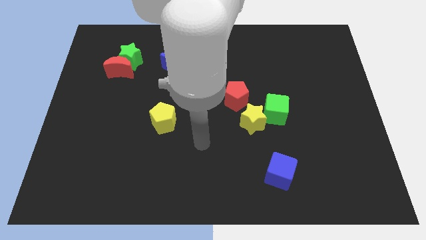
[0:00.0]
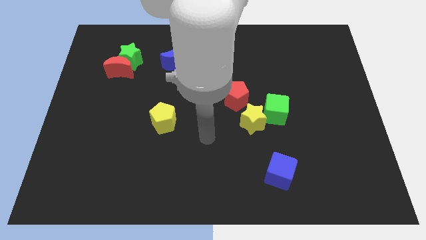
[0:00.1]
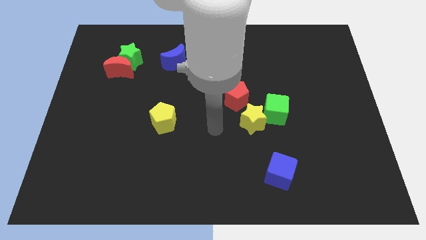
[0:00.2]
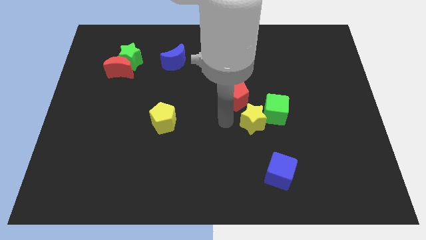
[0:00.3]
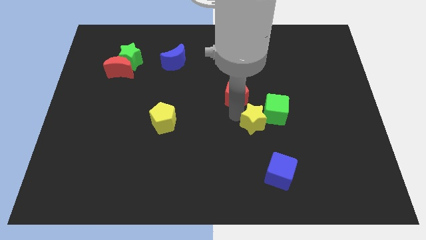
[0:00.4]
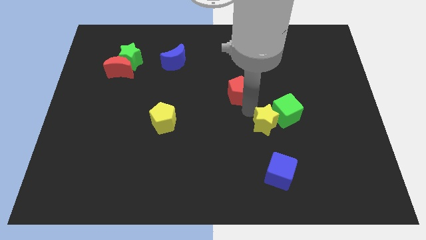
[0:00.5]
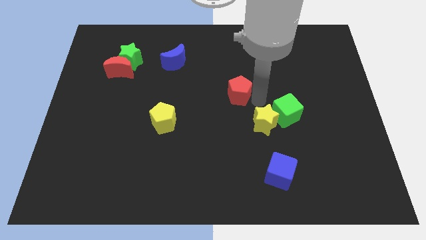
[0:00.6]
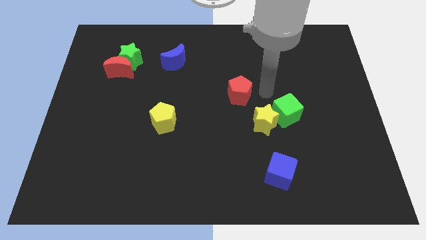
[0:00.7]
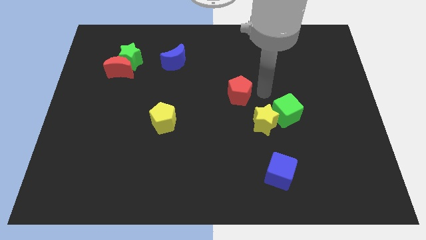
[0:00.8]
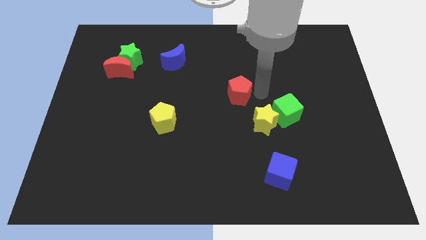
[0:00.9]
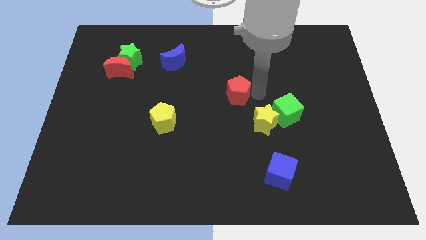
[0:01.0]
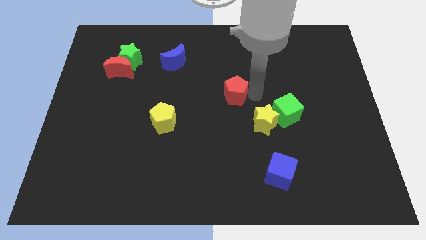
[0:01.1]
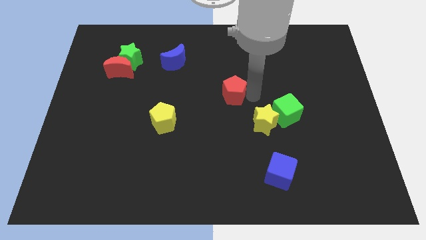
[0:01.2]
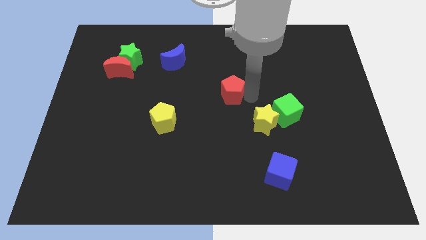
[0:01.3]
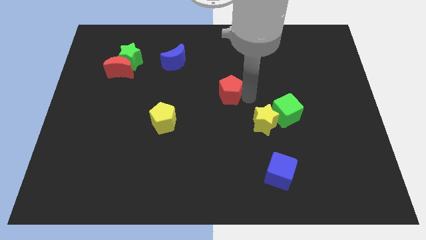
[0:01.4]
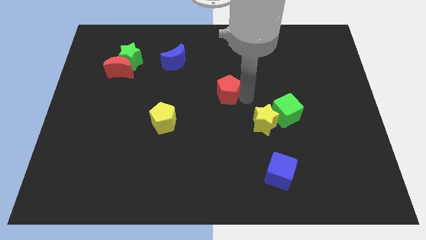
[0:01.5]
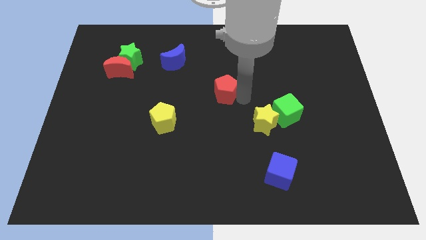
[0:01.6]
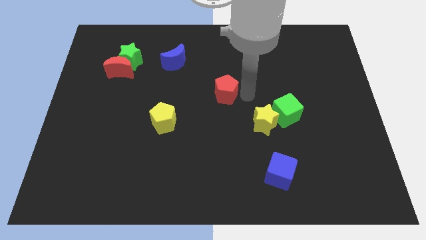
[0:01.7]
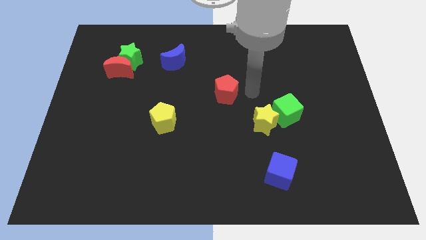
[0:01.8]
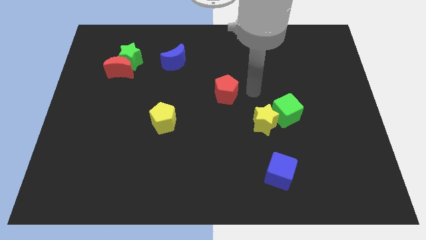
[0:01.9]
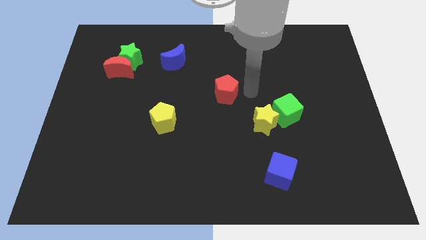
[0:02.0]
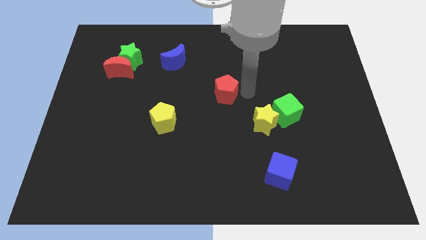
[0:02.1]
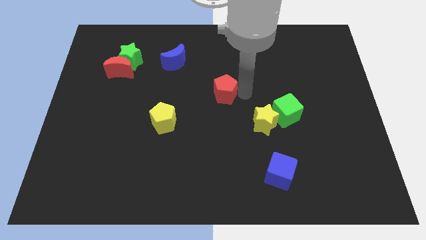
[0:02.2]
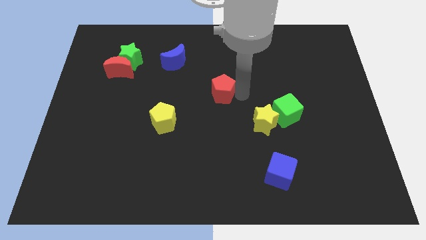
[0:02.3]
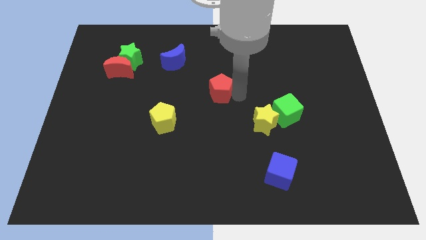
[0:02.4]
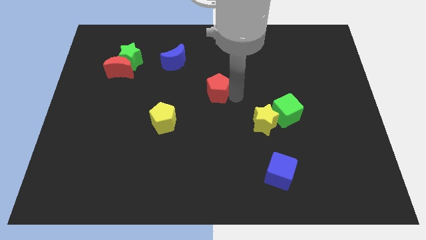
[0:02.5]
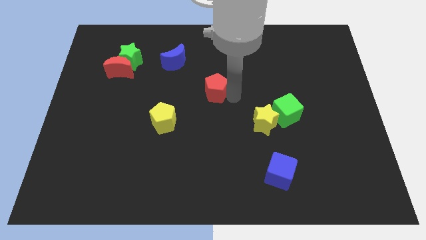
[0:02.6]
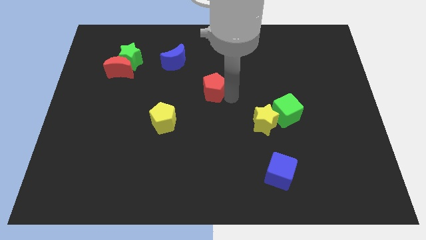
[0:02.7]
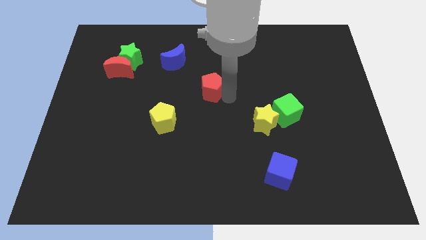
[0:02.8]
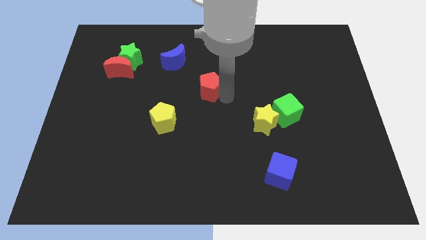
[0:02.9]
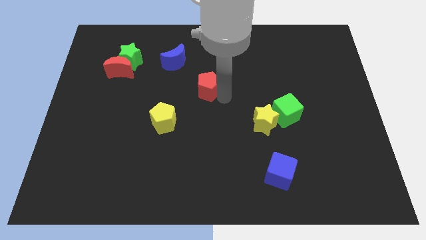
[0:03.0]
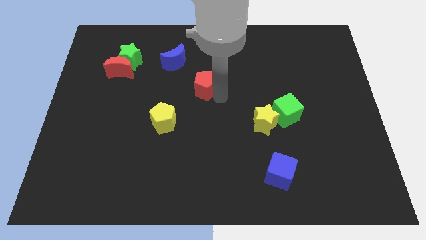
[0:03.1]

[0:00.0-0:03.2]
slightly push the red pentagon left

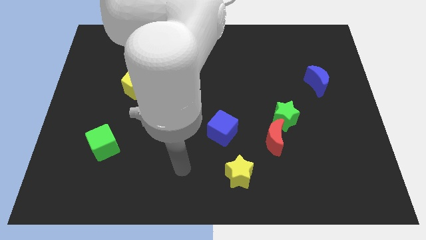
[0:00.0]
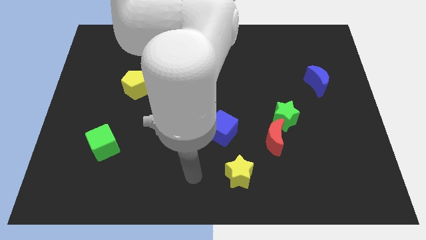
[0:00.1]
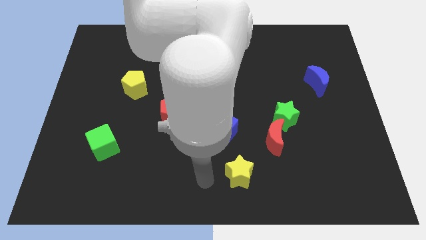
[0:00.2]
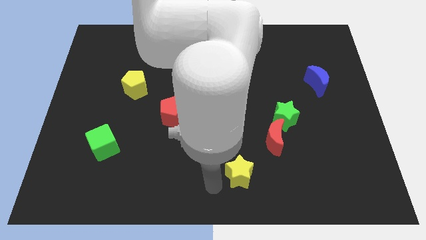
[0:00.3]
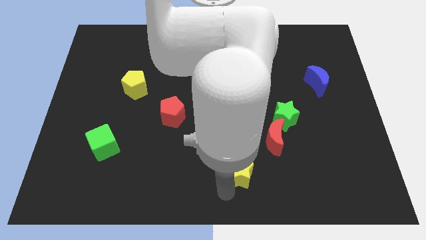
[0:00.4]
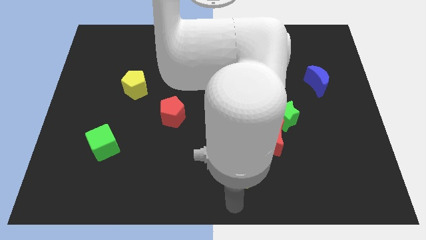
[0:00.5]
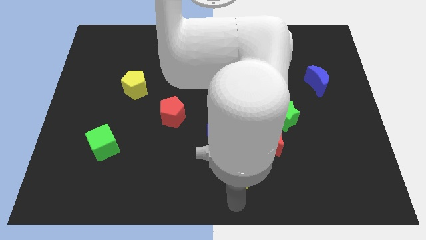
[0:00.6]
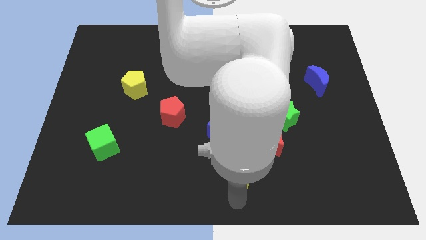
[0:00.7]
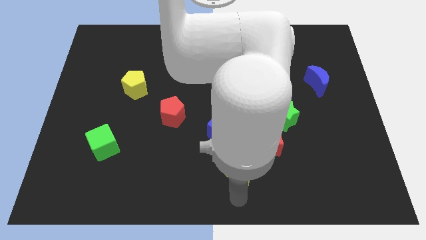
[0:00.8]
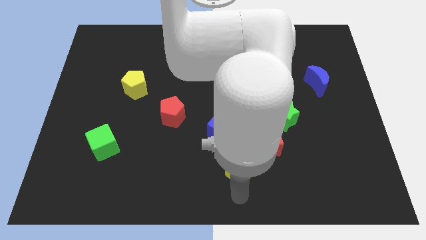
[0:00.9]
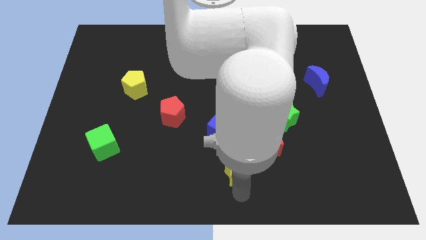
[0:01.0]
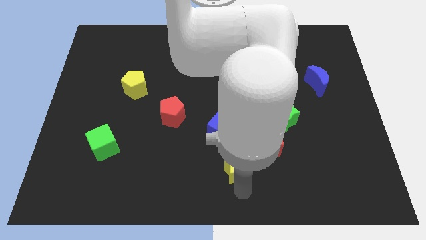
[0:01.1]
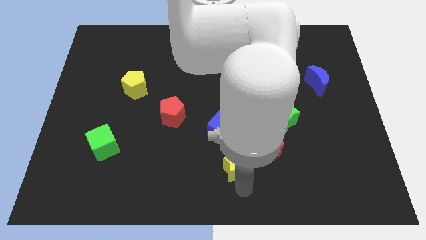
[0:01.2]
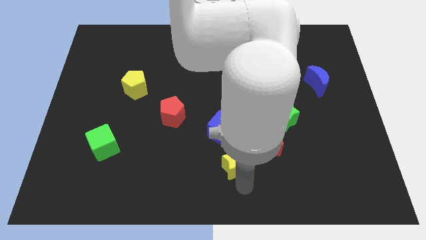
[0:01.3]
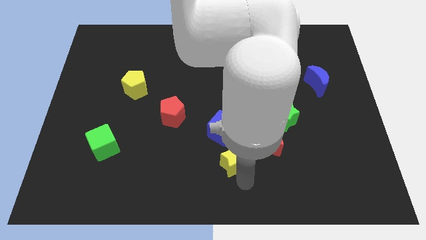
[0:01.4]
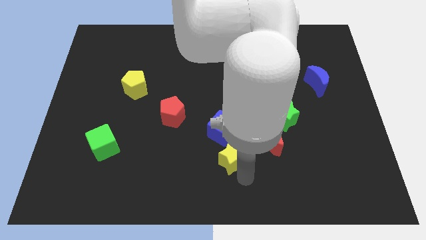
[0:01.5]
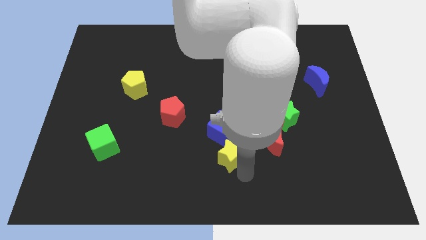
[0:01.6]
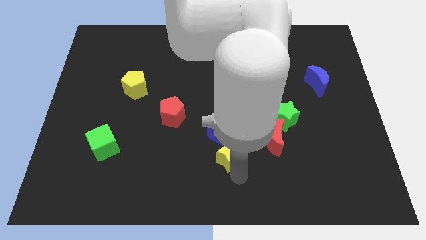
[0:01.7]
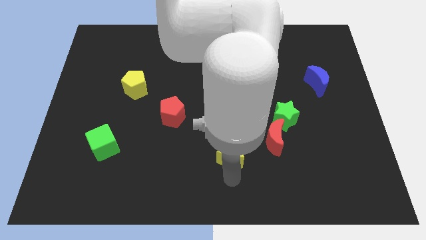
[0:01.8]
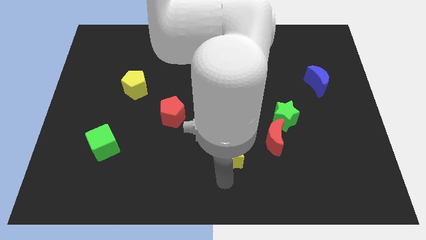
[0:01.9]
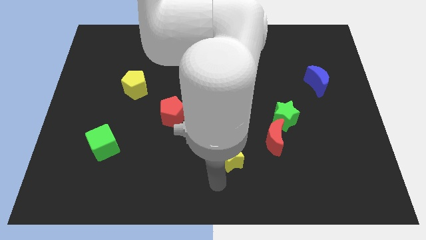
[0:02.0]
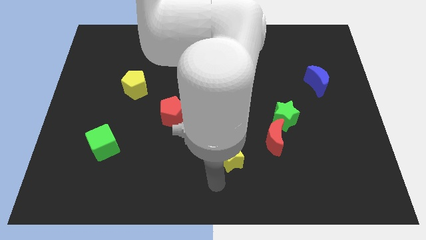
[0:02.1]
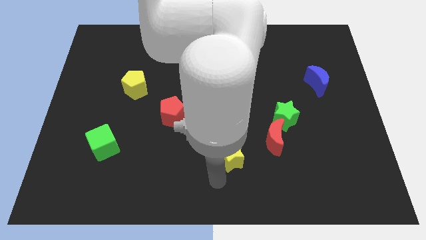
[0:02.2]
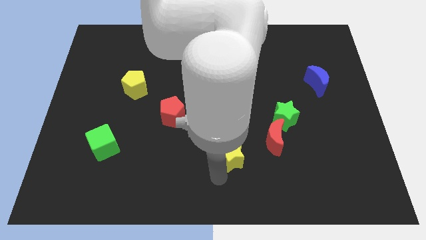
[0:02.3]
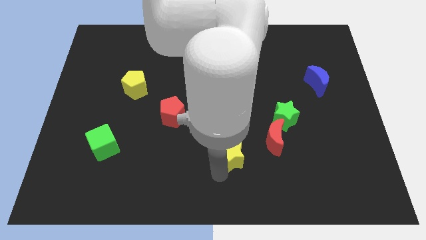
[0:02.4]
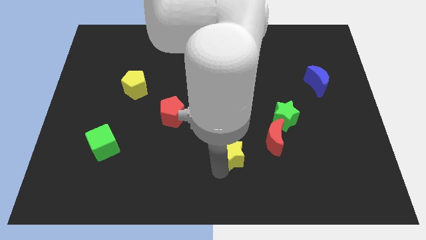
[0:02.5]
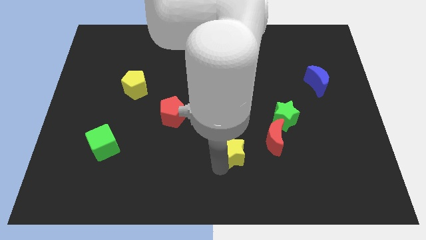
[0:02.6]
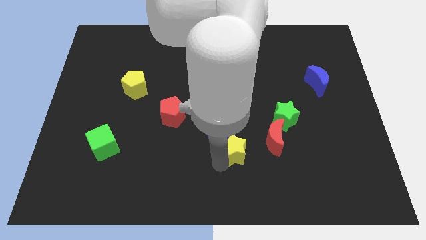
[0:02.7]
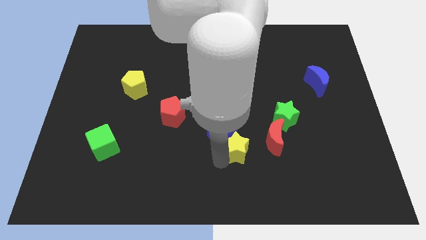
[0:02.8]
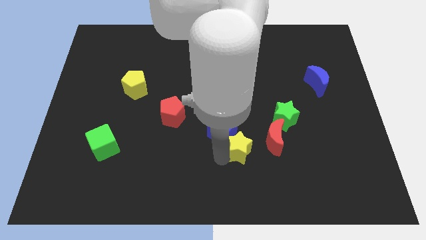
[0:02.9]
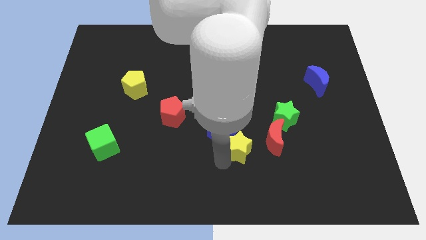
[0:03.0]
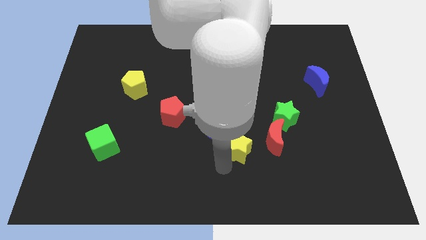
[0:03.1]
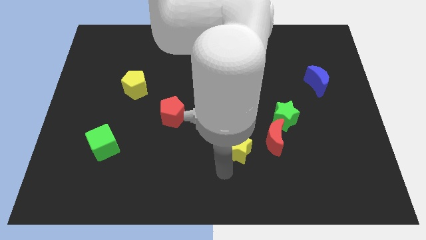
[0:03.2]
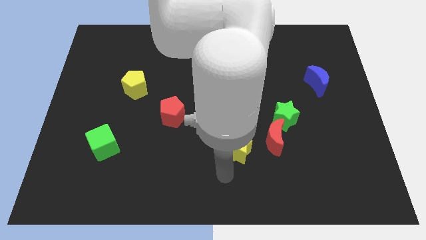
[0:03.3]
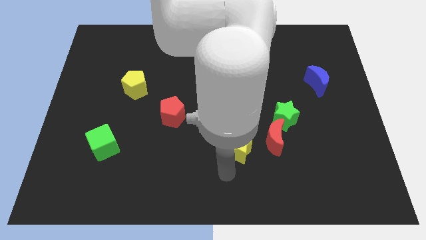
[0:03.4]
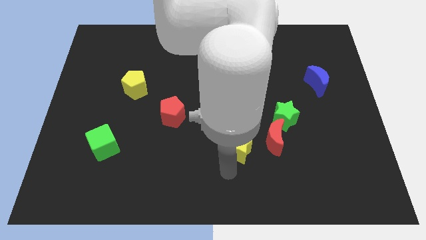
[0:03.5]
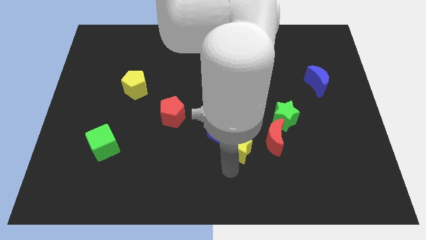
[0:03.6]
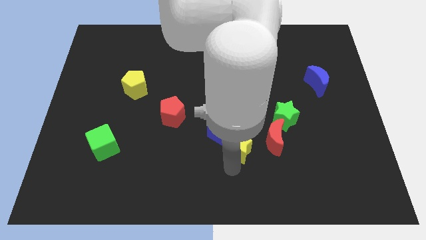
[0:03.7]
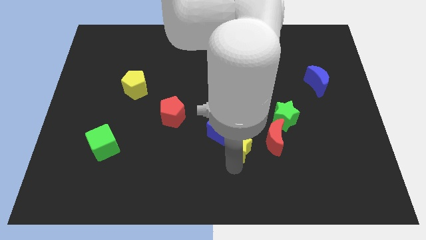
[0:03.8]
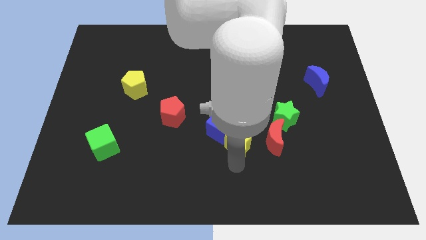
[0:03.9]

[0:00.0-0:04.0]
move the yellow star upwards a little bit

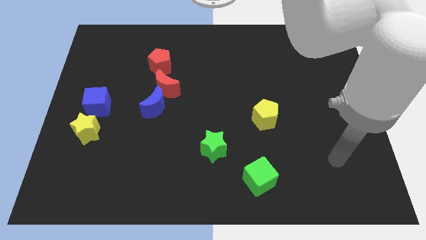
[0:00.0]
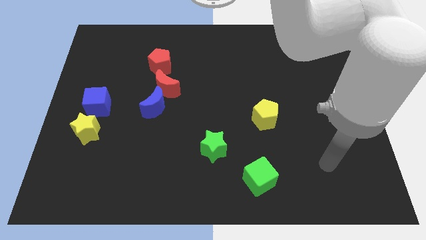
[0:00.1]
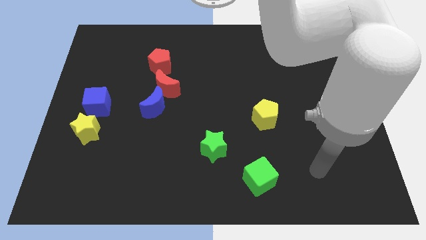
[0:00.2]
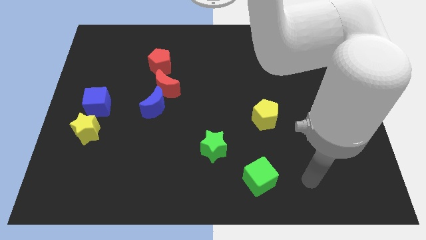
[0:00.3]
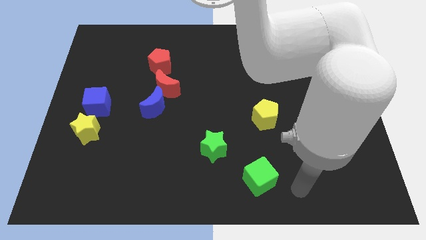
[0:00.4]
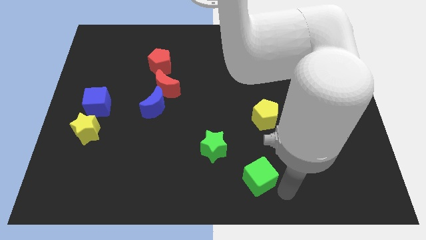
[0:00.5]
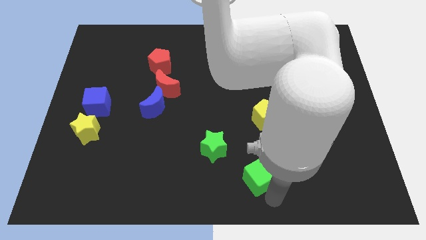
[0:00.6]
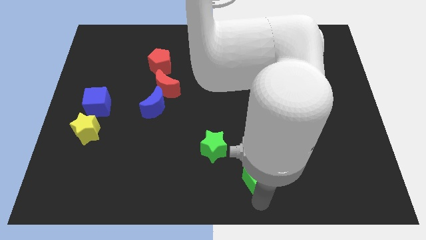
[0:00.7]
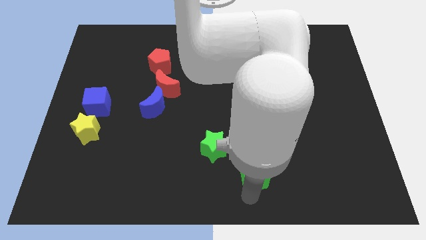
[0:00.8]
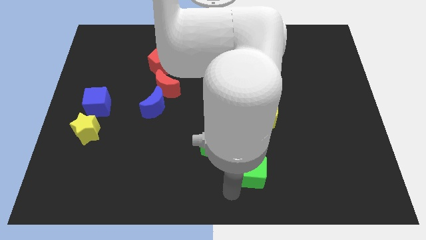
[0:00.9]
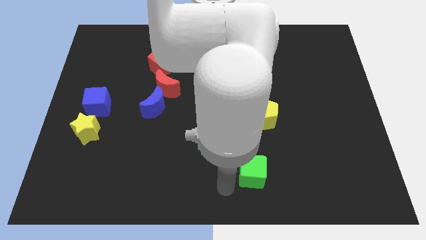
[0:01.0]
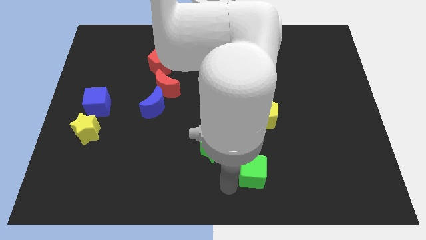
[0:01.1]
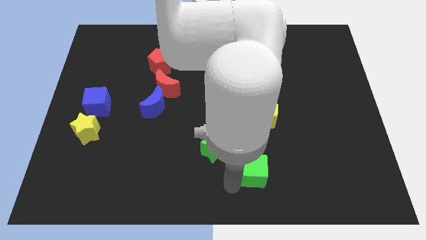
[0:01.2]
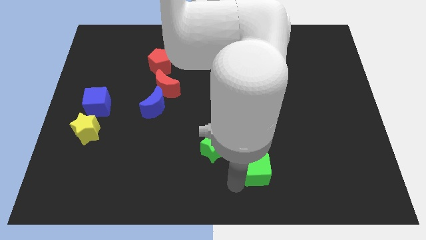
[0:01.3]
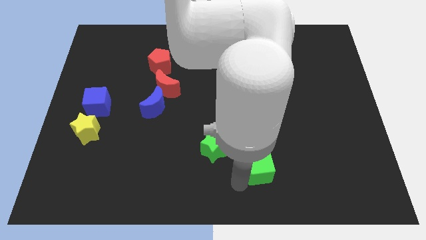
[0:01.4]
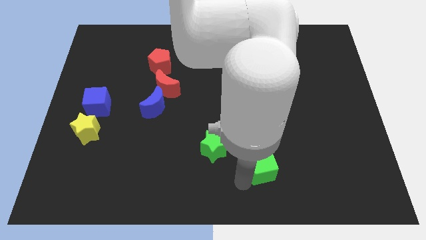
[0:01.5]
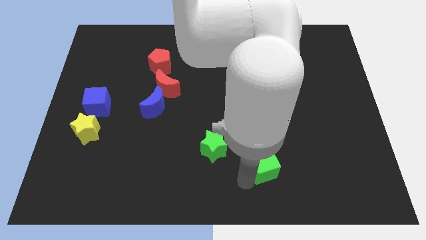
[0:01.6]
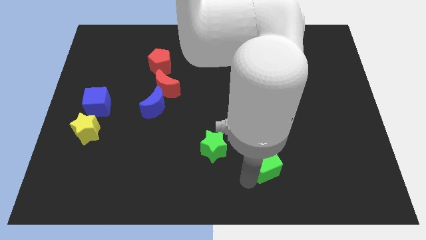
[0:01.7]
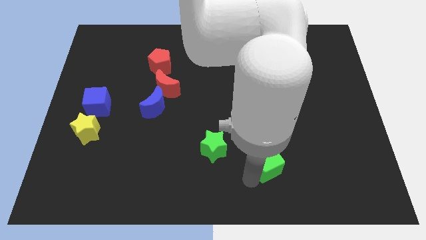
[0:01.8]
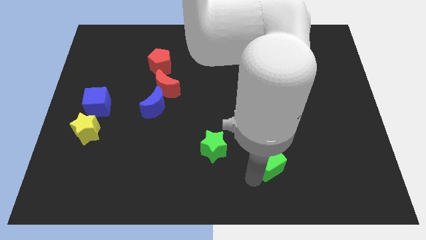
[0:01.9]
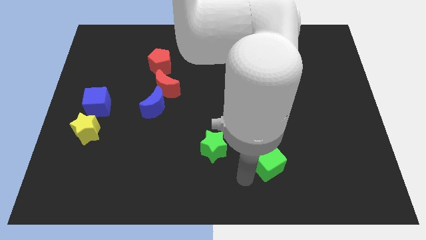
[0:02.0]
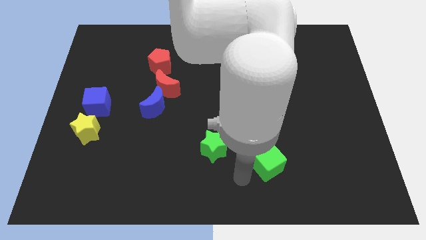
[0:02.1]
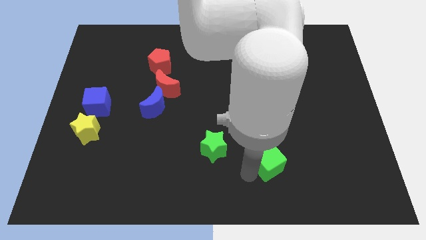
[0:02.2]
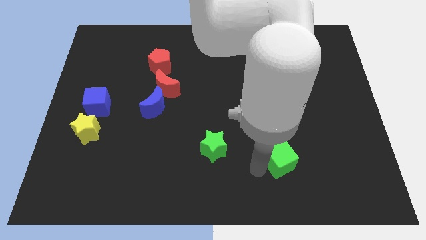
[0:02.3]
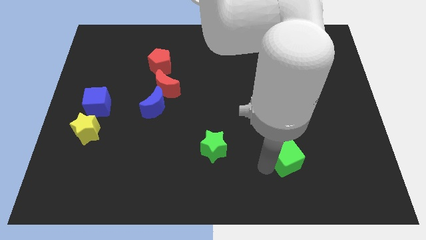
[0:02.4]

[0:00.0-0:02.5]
push the green cube upwards and right slightly
